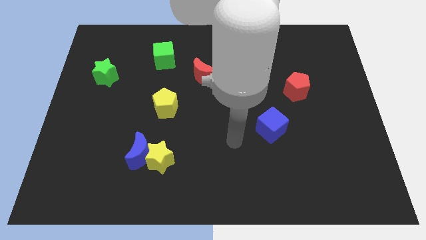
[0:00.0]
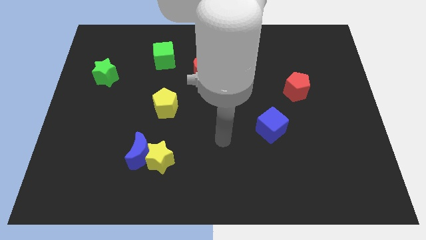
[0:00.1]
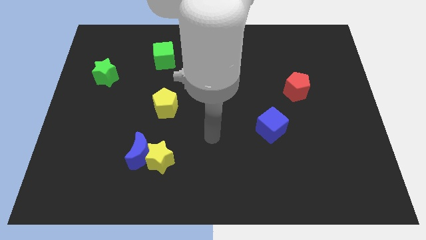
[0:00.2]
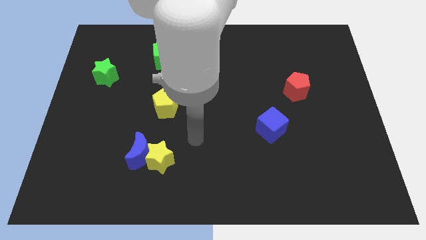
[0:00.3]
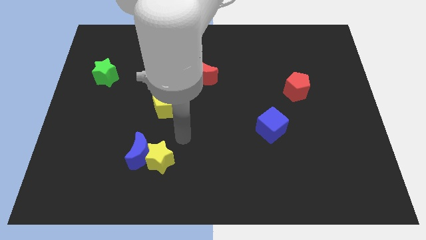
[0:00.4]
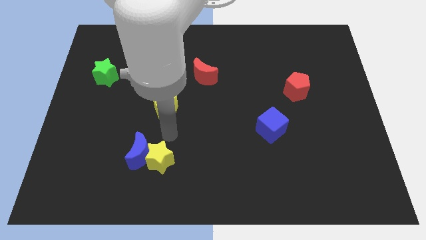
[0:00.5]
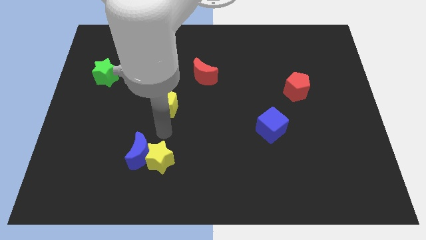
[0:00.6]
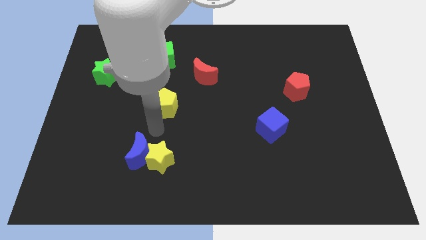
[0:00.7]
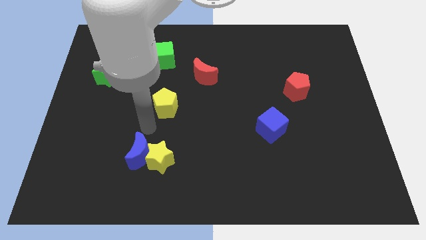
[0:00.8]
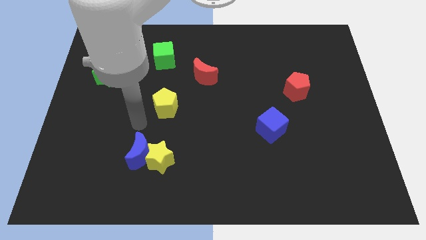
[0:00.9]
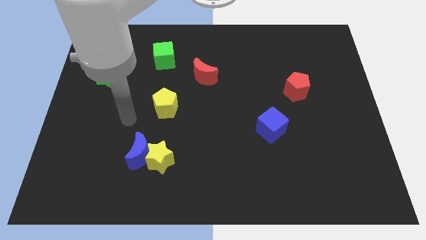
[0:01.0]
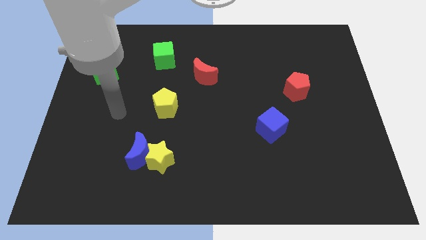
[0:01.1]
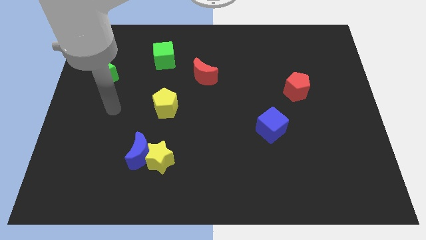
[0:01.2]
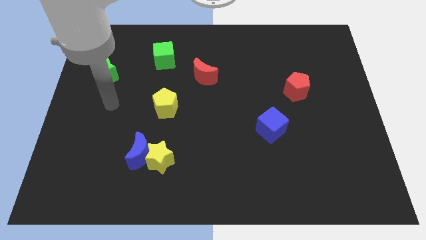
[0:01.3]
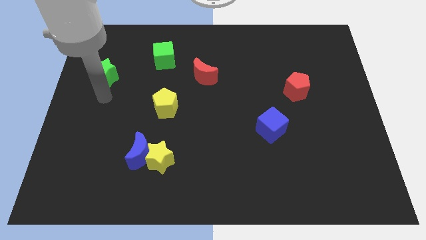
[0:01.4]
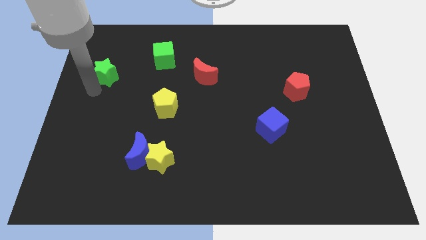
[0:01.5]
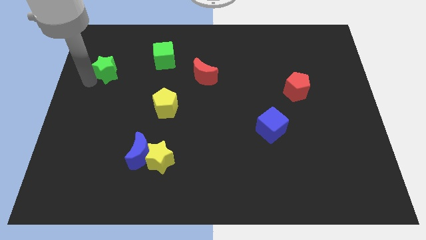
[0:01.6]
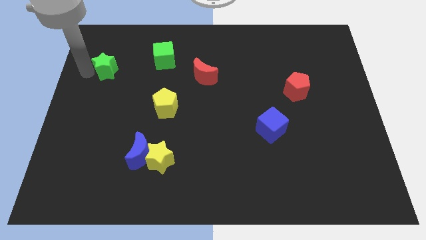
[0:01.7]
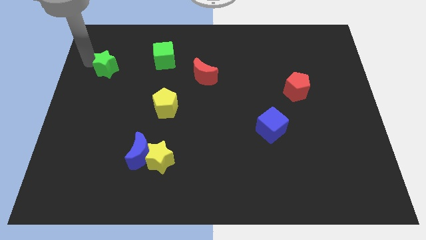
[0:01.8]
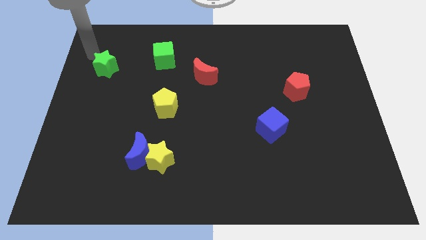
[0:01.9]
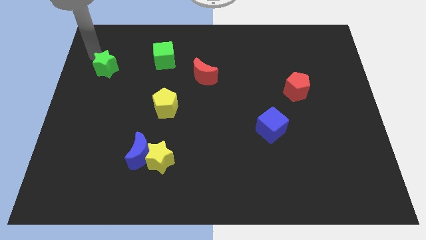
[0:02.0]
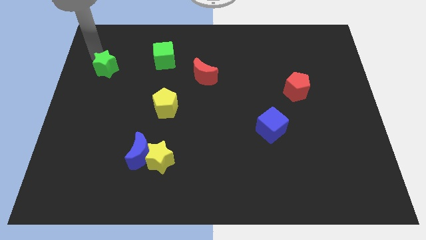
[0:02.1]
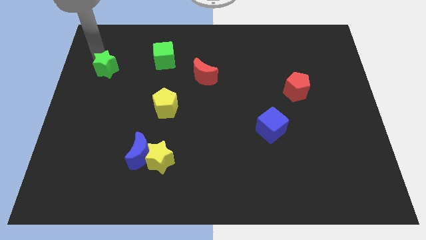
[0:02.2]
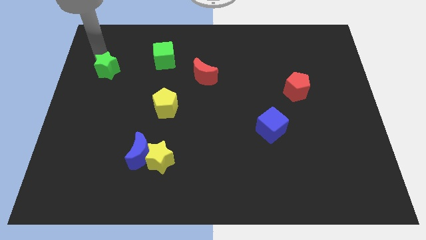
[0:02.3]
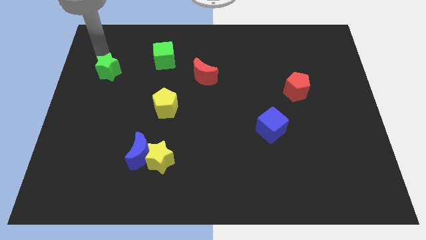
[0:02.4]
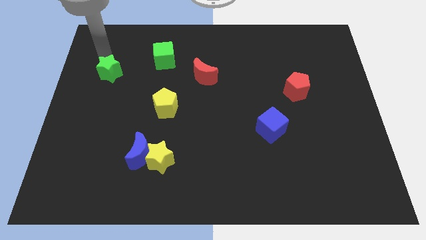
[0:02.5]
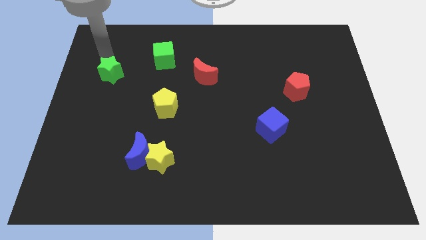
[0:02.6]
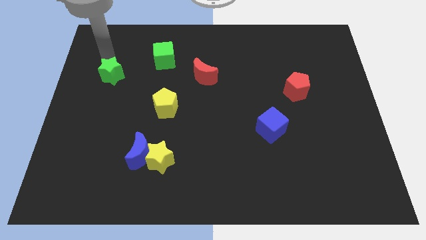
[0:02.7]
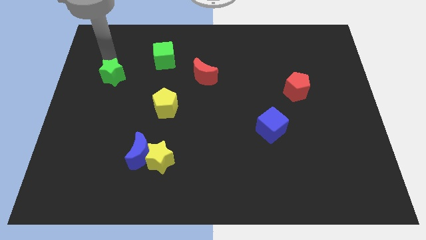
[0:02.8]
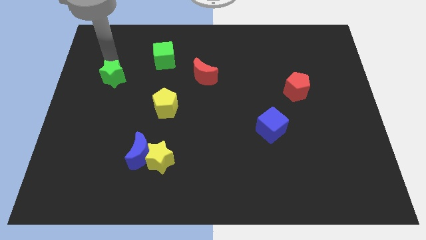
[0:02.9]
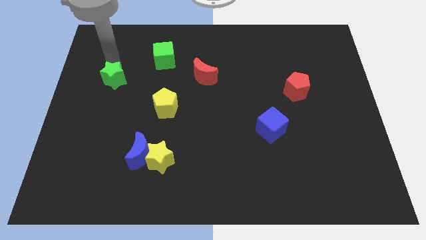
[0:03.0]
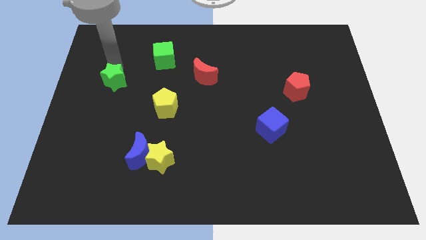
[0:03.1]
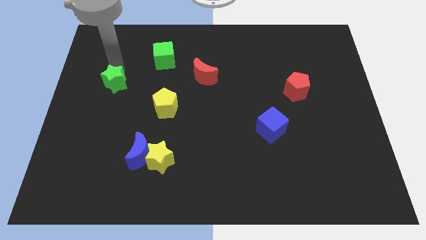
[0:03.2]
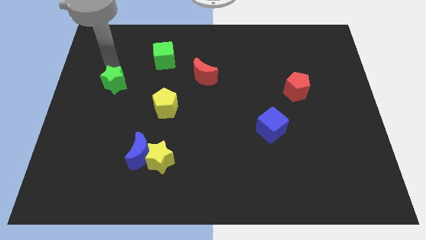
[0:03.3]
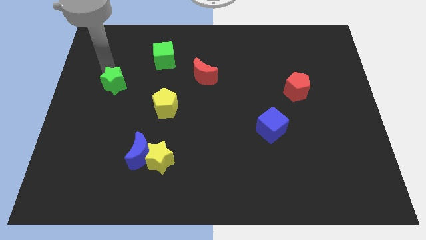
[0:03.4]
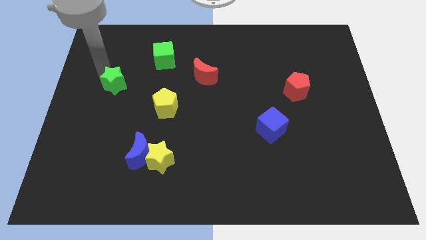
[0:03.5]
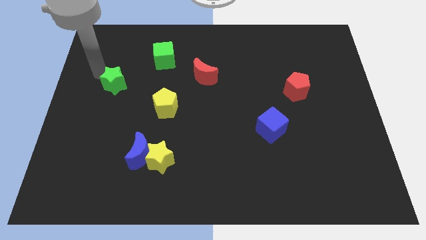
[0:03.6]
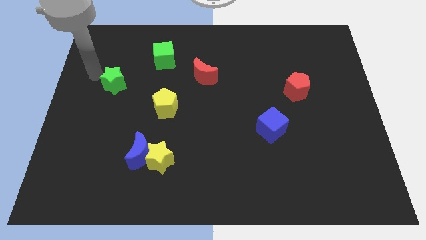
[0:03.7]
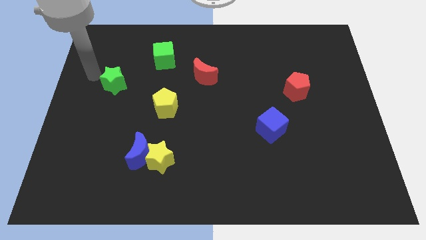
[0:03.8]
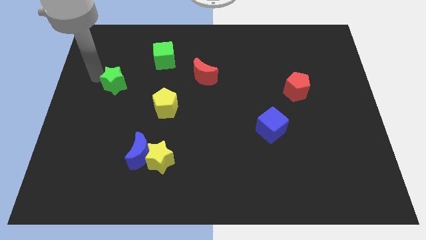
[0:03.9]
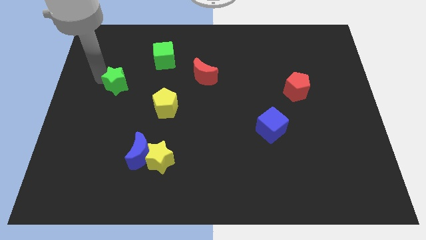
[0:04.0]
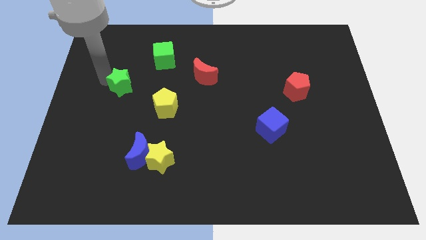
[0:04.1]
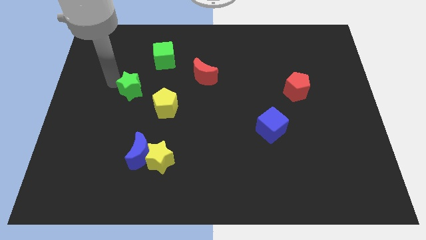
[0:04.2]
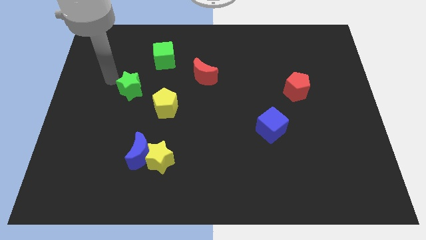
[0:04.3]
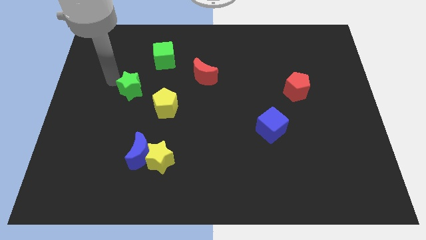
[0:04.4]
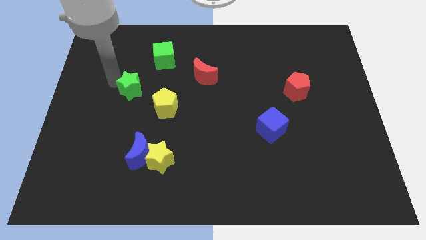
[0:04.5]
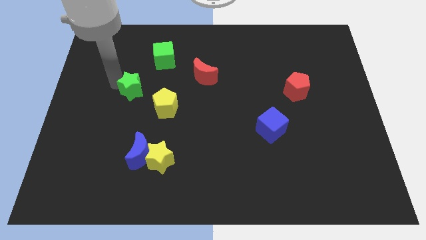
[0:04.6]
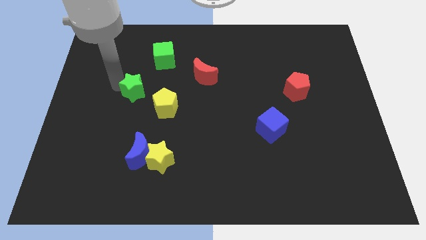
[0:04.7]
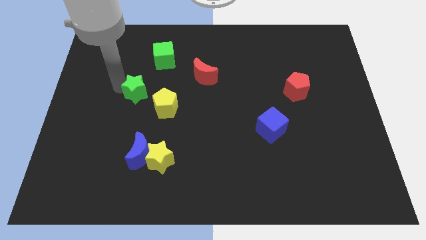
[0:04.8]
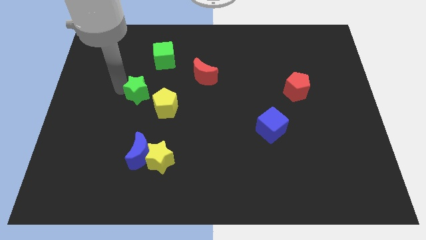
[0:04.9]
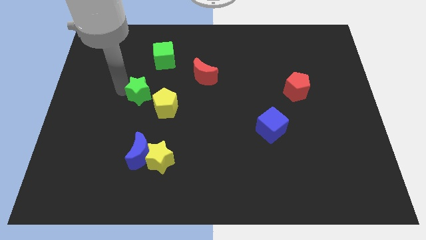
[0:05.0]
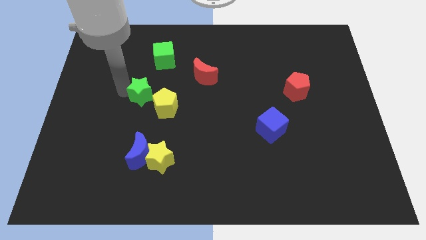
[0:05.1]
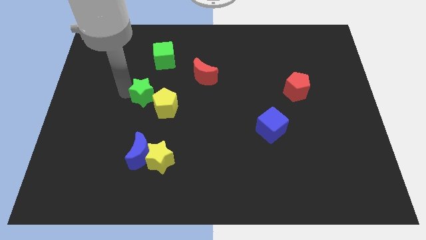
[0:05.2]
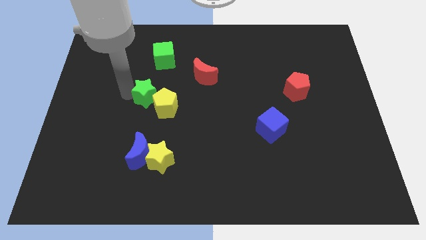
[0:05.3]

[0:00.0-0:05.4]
put the green star towards the yellow pentagon

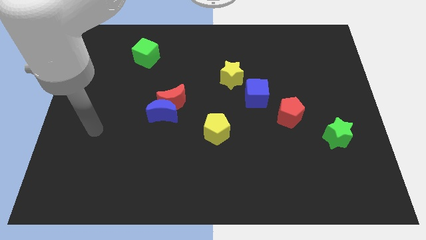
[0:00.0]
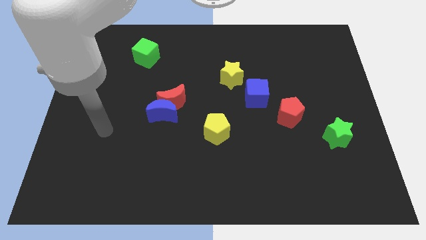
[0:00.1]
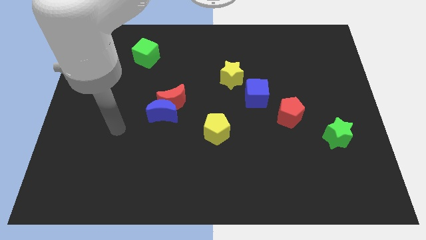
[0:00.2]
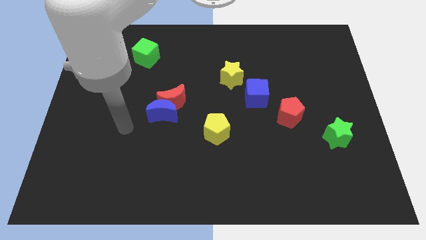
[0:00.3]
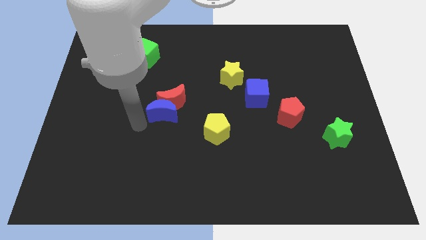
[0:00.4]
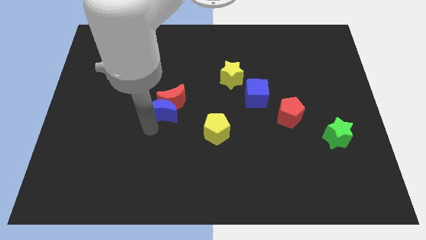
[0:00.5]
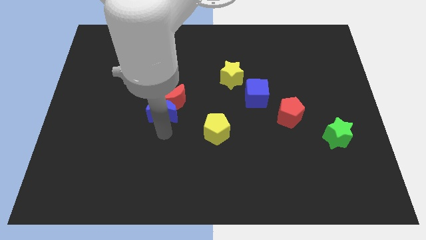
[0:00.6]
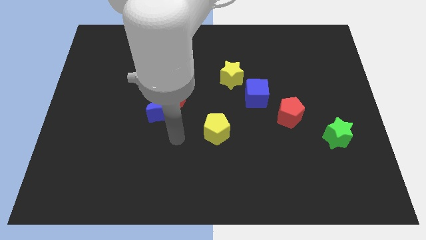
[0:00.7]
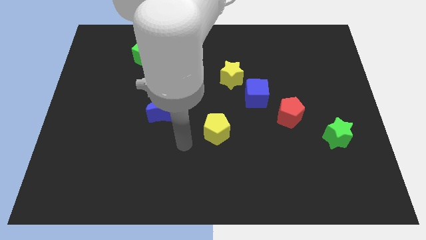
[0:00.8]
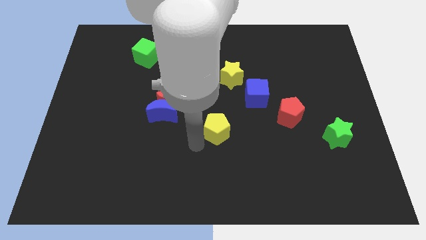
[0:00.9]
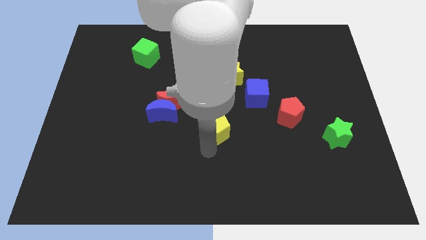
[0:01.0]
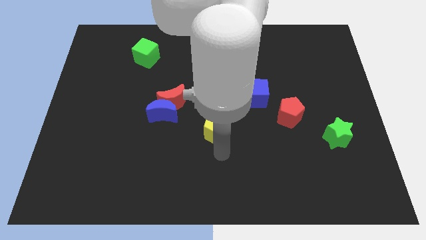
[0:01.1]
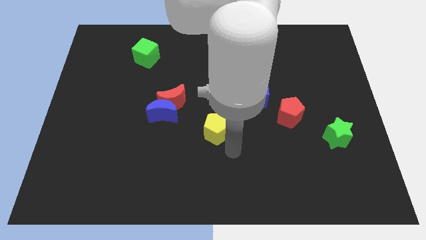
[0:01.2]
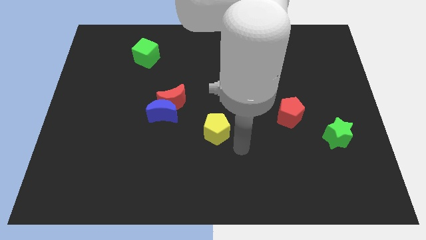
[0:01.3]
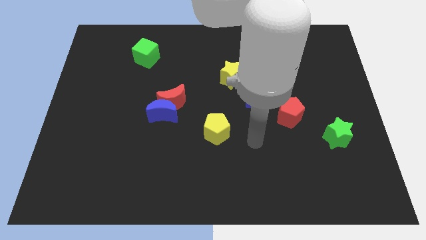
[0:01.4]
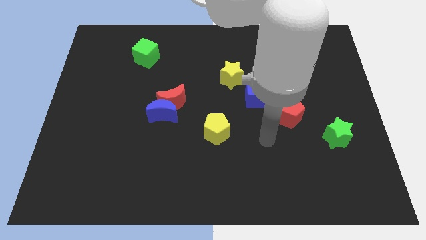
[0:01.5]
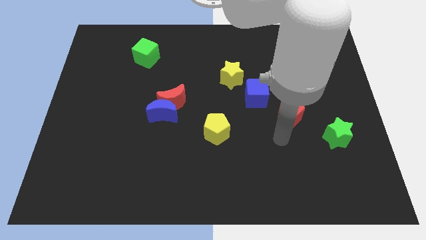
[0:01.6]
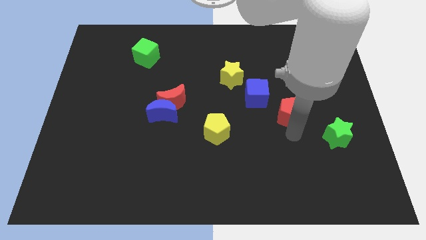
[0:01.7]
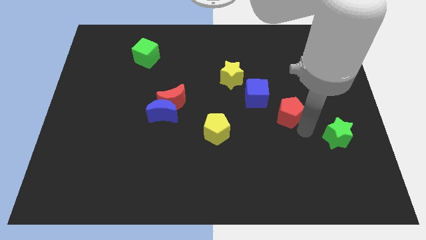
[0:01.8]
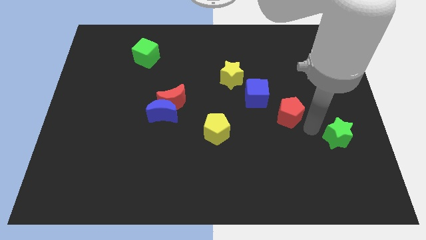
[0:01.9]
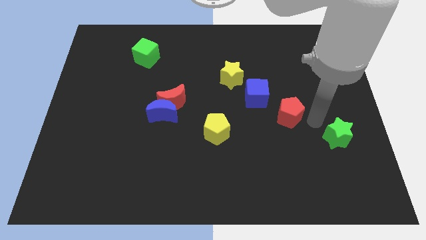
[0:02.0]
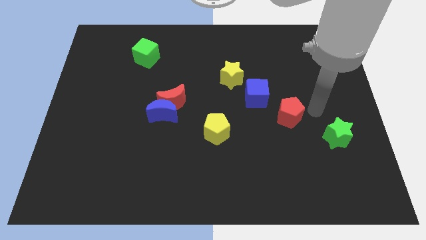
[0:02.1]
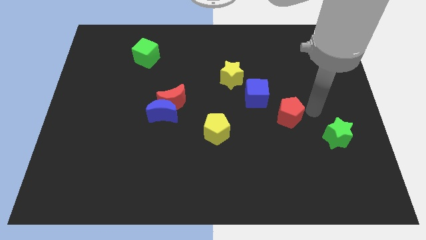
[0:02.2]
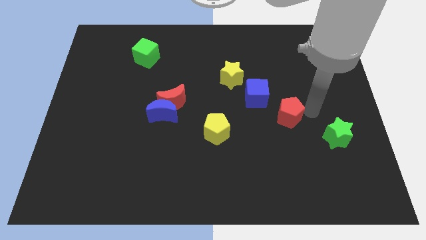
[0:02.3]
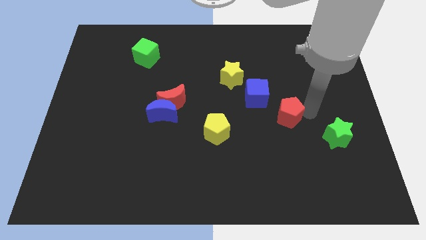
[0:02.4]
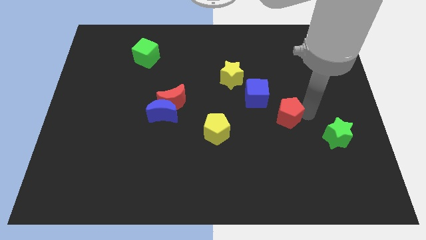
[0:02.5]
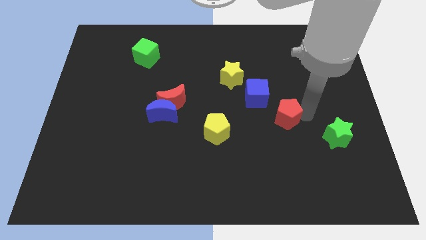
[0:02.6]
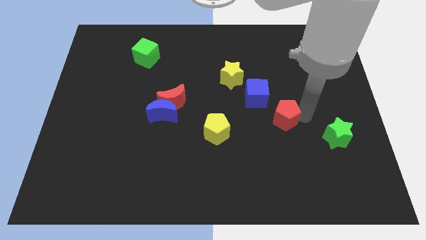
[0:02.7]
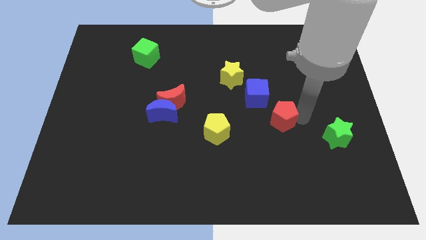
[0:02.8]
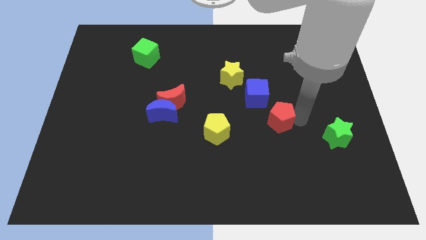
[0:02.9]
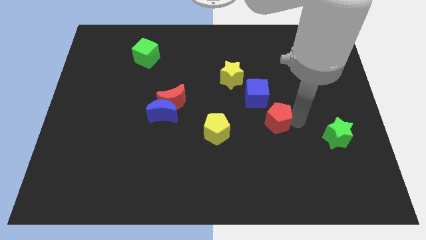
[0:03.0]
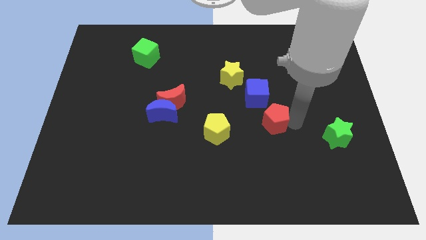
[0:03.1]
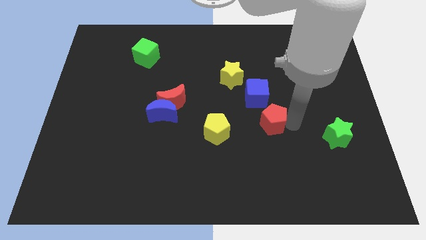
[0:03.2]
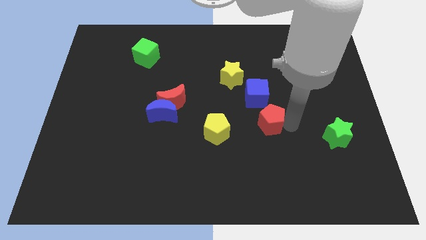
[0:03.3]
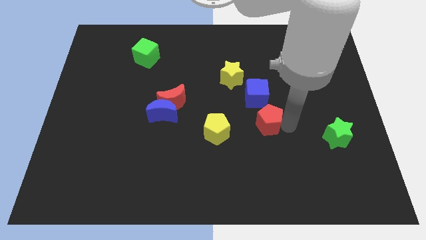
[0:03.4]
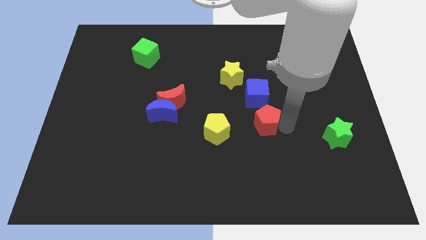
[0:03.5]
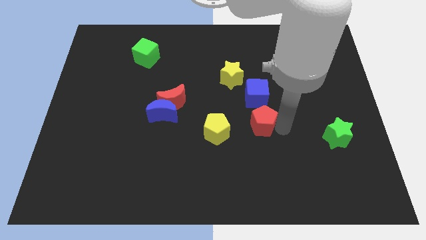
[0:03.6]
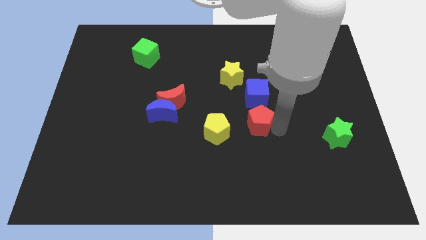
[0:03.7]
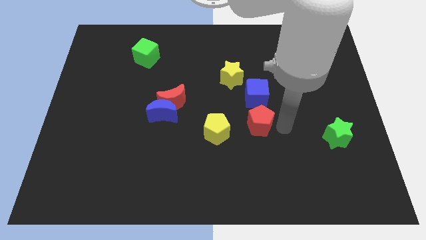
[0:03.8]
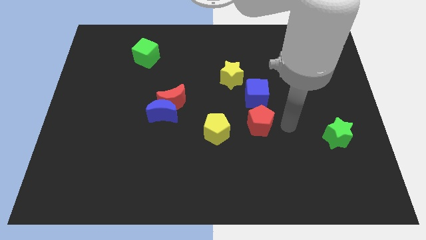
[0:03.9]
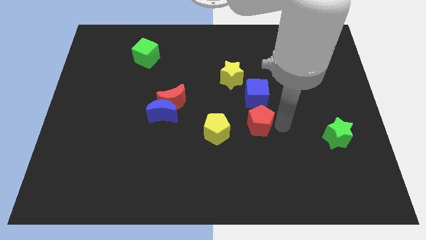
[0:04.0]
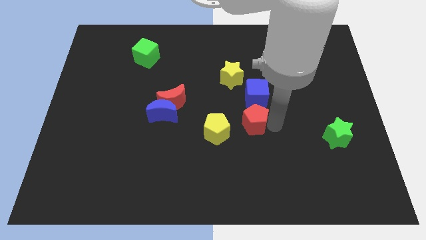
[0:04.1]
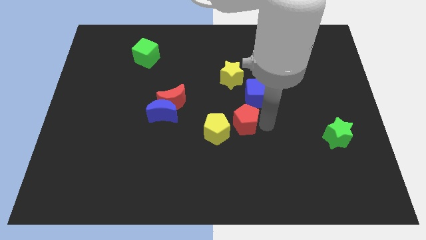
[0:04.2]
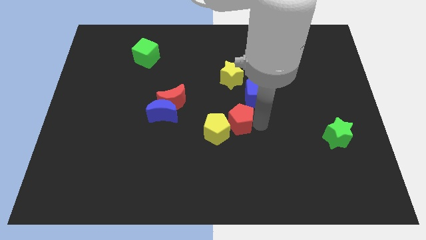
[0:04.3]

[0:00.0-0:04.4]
slide the red pentagon next to the yellow pentagon
